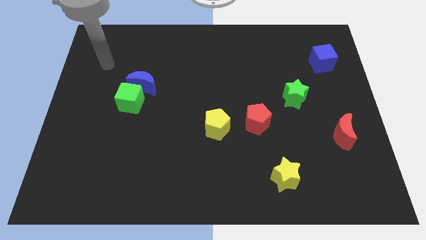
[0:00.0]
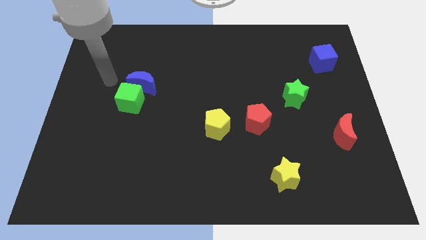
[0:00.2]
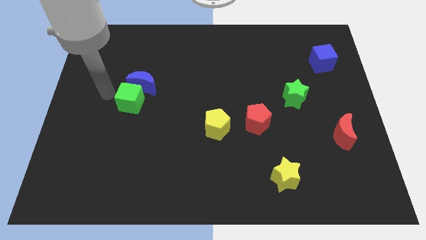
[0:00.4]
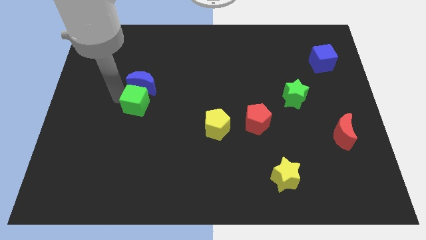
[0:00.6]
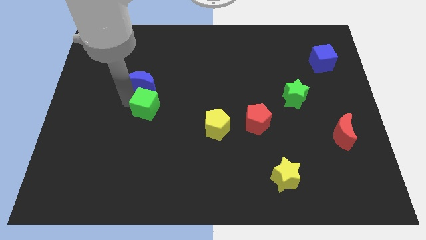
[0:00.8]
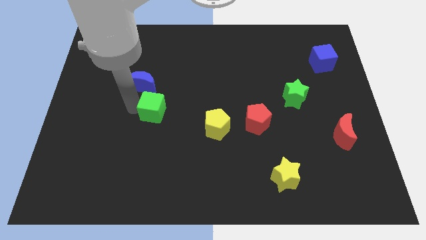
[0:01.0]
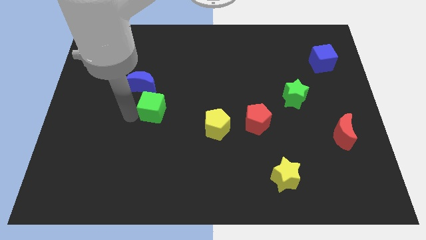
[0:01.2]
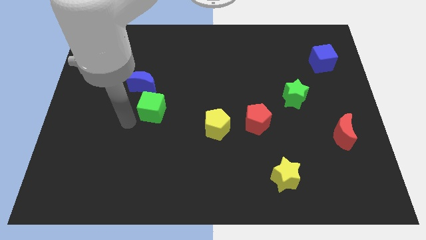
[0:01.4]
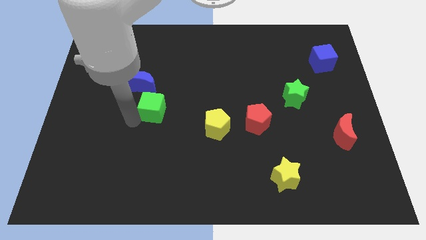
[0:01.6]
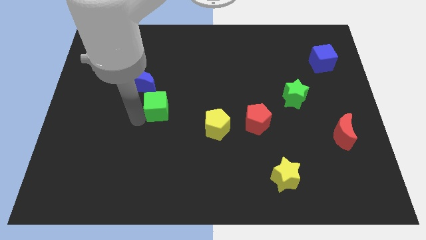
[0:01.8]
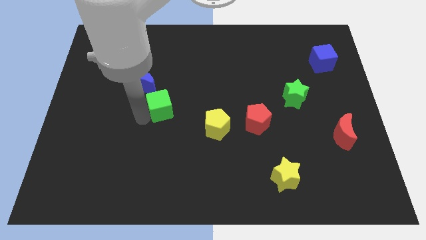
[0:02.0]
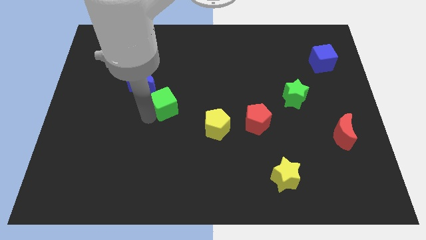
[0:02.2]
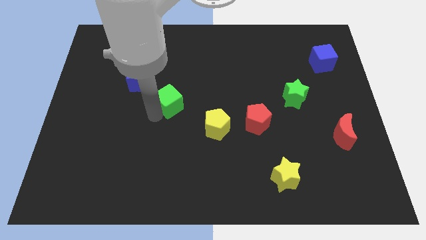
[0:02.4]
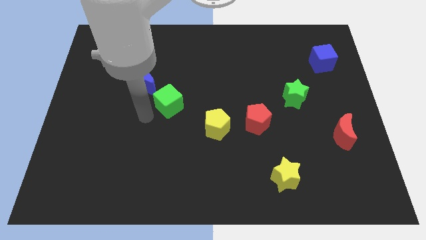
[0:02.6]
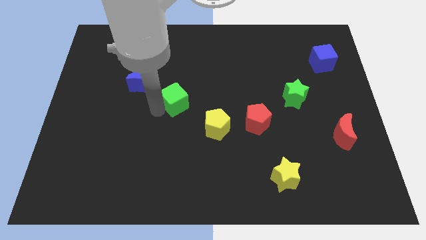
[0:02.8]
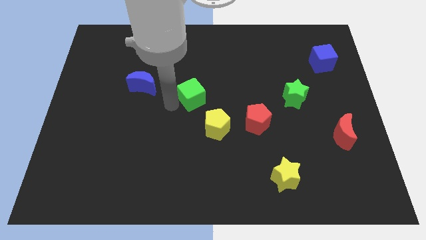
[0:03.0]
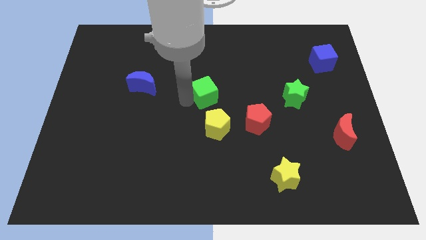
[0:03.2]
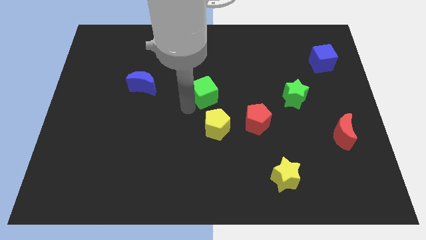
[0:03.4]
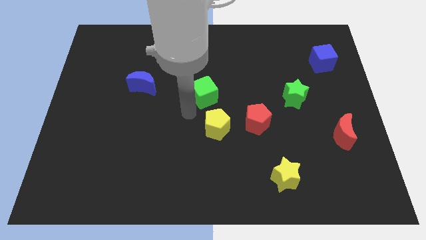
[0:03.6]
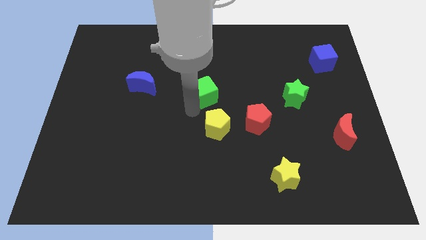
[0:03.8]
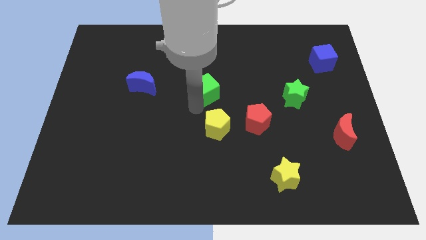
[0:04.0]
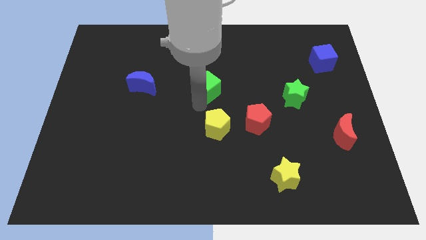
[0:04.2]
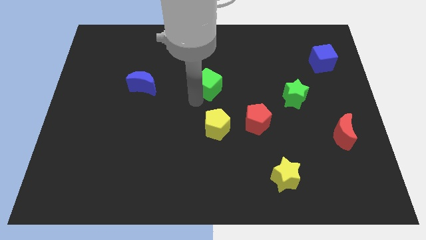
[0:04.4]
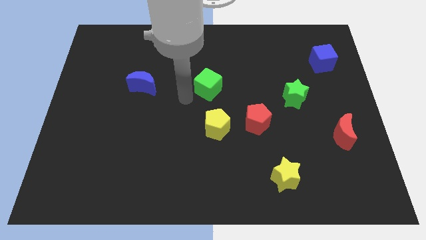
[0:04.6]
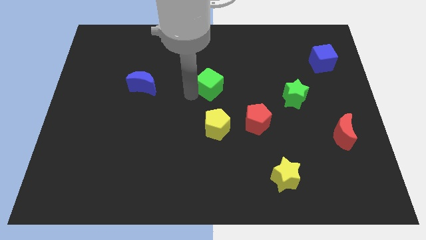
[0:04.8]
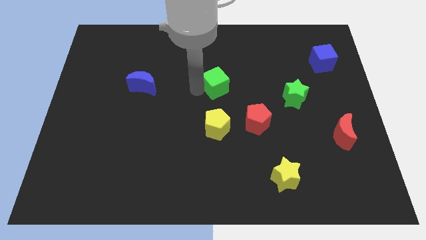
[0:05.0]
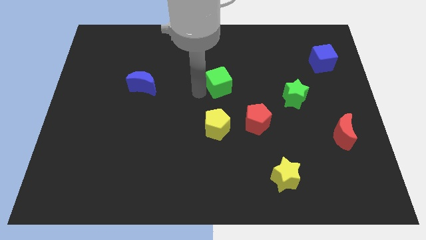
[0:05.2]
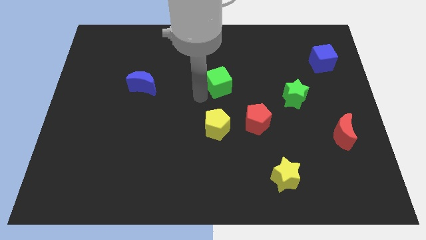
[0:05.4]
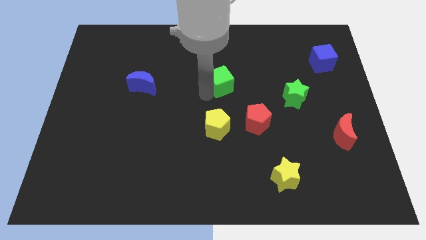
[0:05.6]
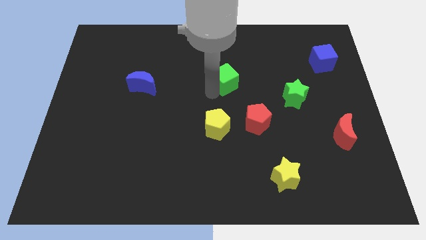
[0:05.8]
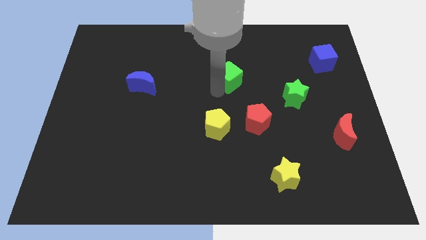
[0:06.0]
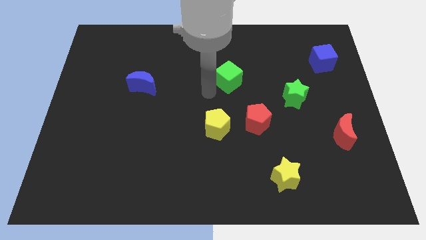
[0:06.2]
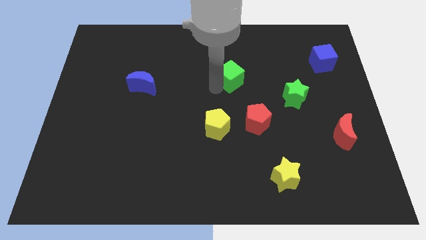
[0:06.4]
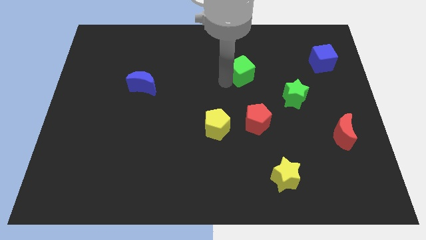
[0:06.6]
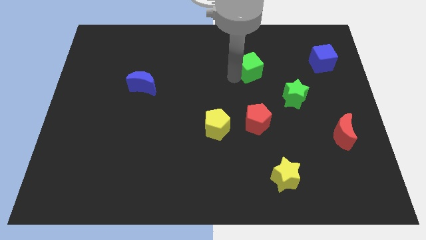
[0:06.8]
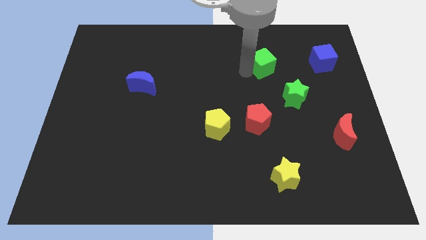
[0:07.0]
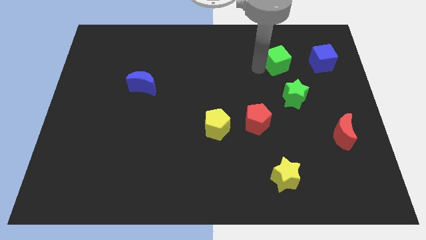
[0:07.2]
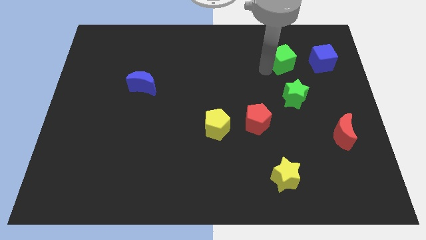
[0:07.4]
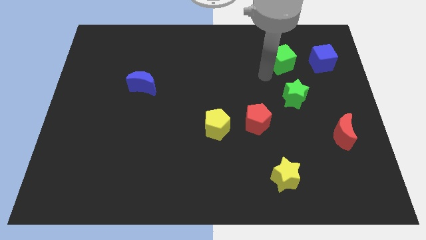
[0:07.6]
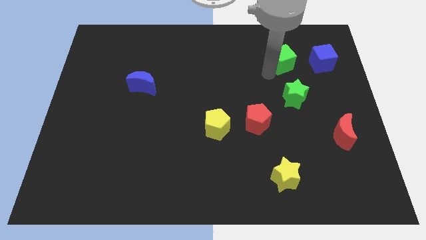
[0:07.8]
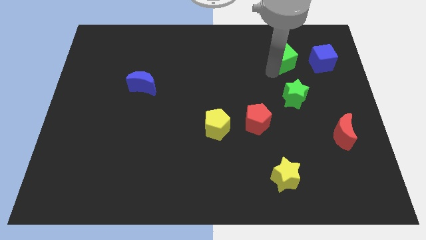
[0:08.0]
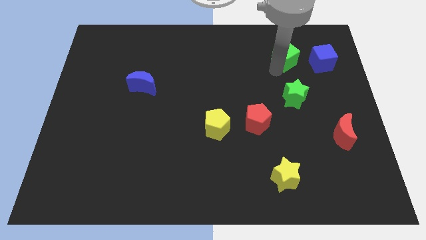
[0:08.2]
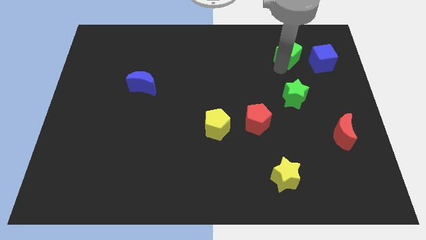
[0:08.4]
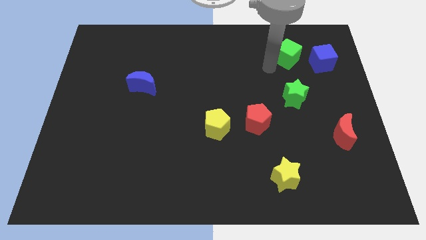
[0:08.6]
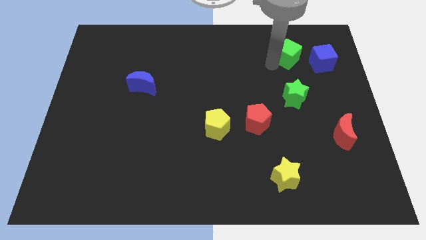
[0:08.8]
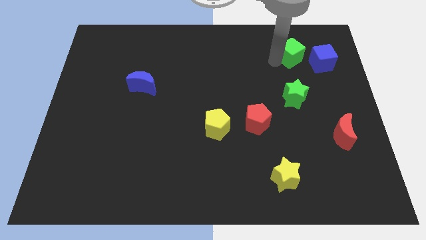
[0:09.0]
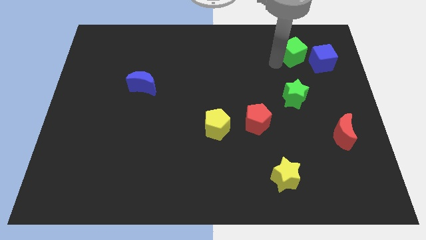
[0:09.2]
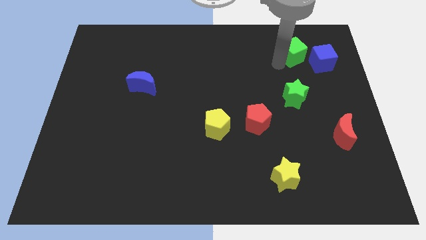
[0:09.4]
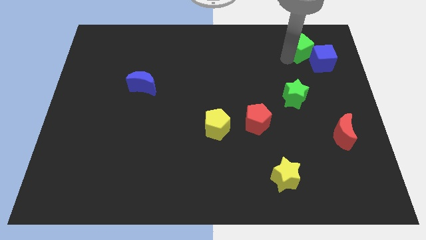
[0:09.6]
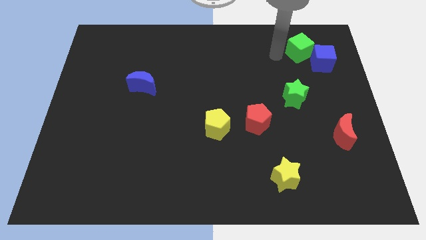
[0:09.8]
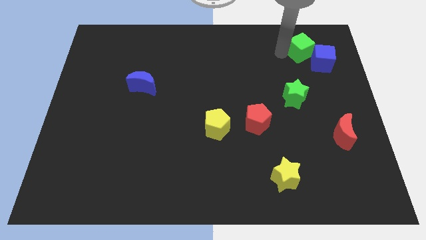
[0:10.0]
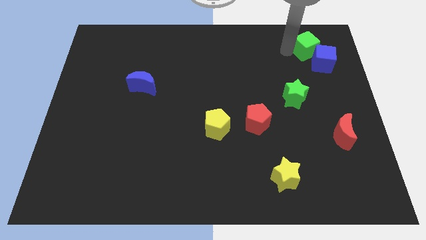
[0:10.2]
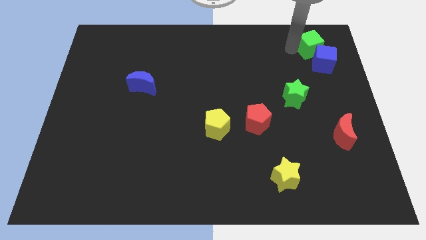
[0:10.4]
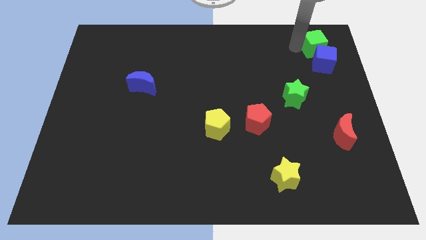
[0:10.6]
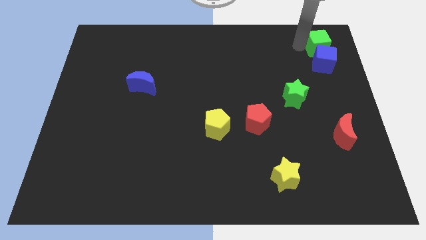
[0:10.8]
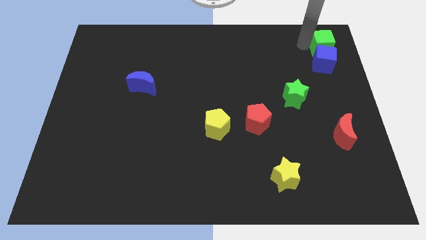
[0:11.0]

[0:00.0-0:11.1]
slide the green cube to the top right

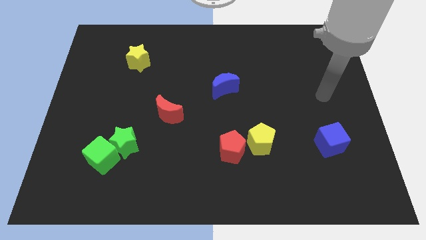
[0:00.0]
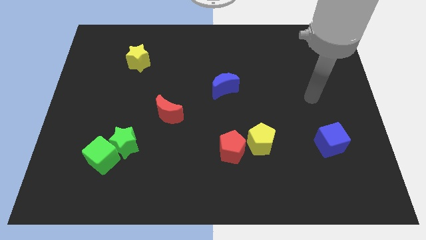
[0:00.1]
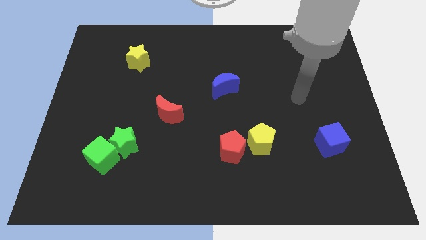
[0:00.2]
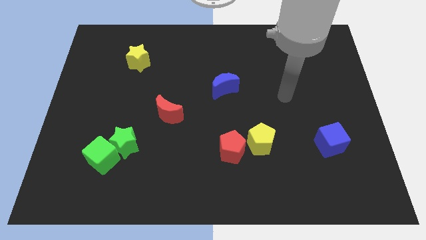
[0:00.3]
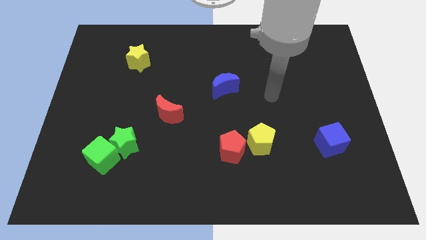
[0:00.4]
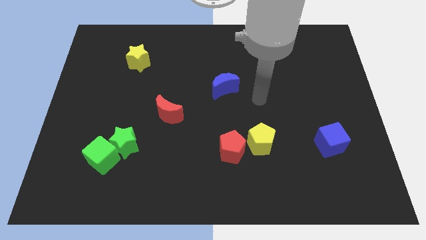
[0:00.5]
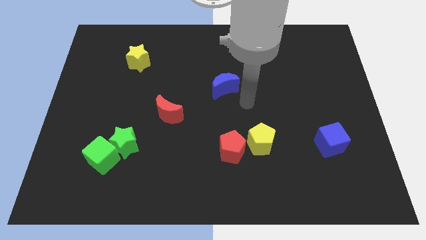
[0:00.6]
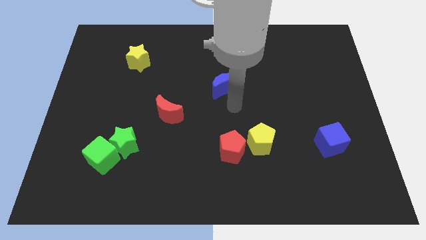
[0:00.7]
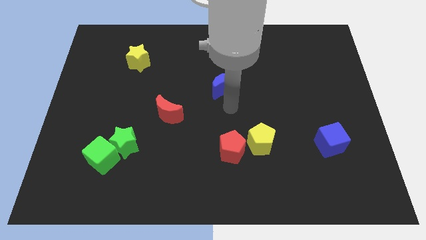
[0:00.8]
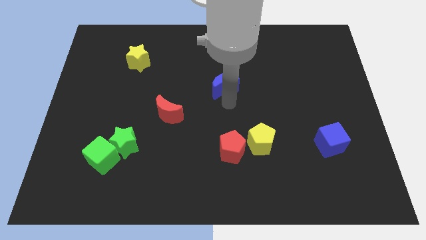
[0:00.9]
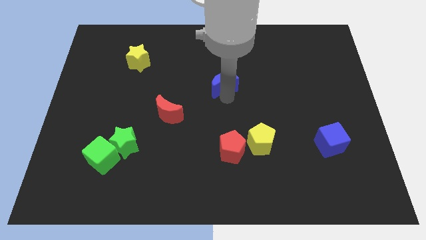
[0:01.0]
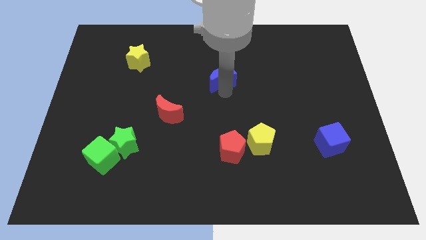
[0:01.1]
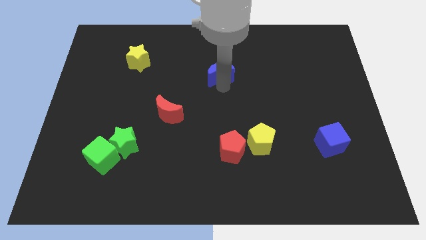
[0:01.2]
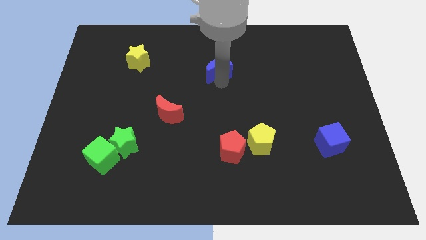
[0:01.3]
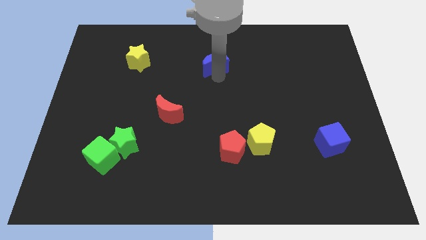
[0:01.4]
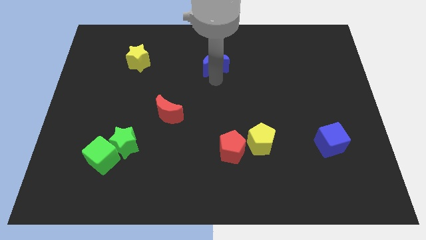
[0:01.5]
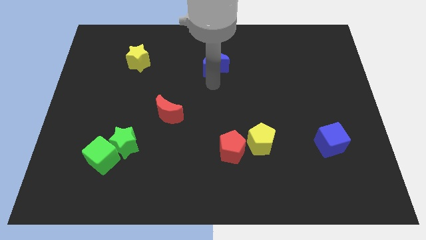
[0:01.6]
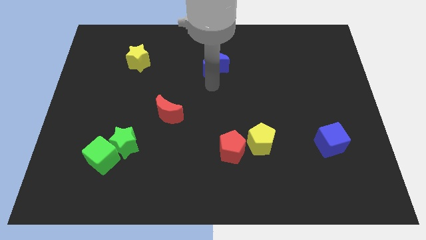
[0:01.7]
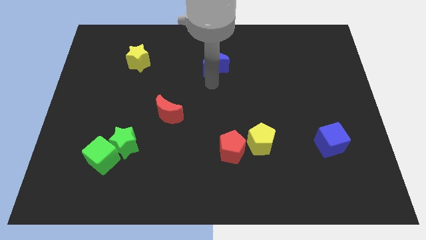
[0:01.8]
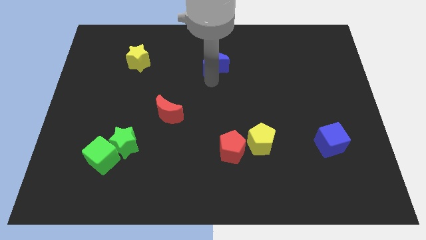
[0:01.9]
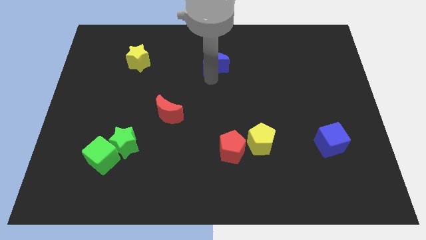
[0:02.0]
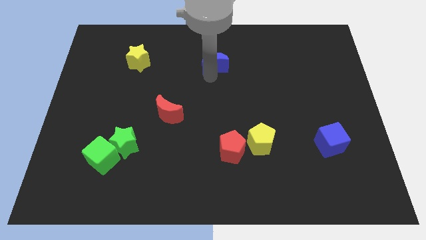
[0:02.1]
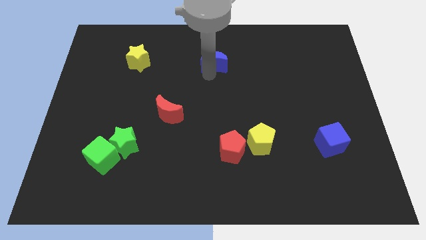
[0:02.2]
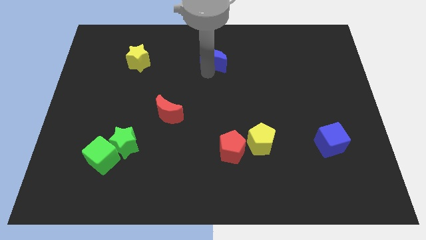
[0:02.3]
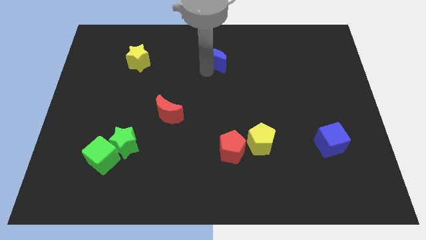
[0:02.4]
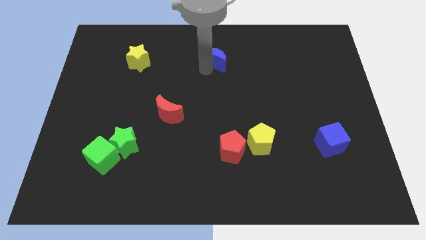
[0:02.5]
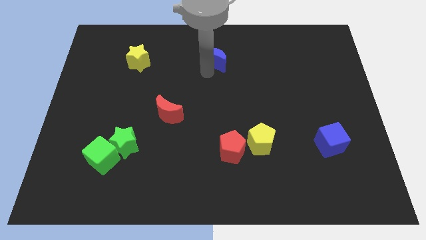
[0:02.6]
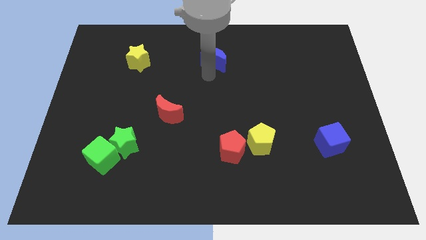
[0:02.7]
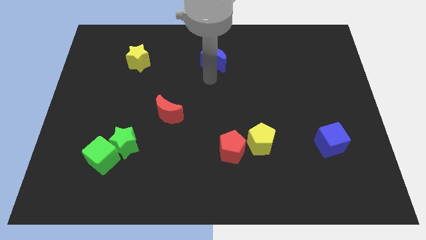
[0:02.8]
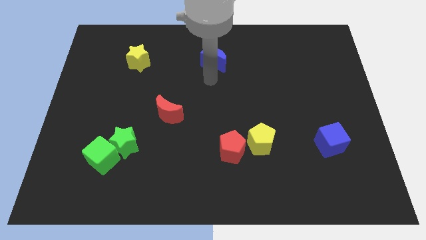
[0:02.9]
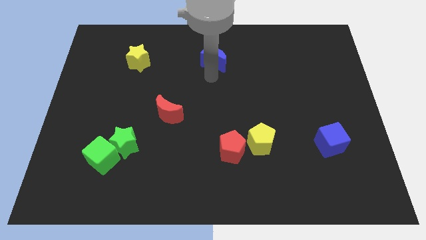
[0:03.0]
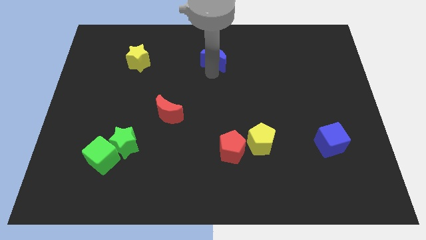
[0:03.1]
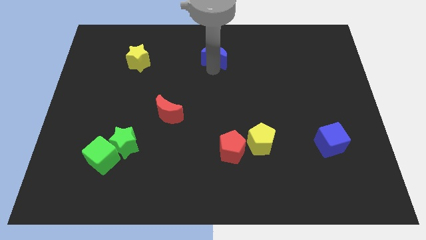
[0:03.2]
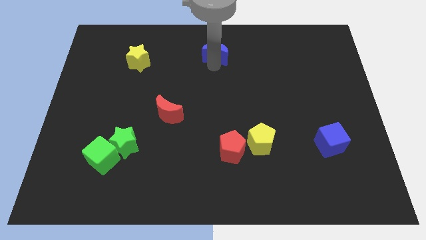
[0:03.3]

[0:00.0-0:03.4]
put the blue moon to the towards your base
